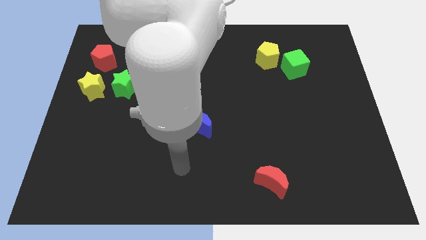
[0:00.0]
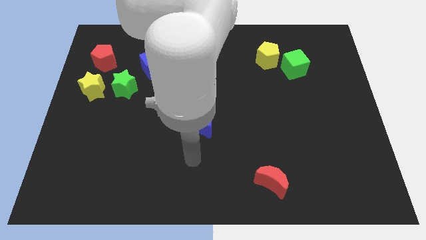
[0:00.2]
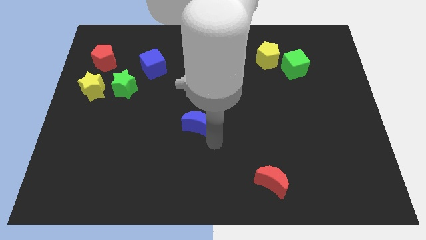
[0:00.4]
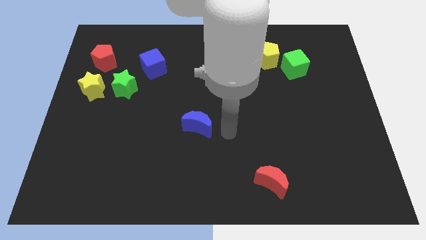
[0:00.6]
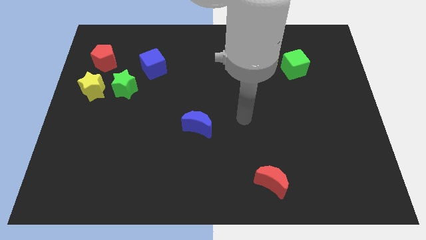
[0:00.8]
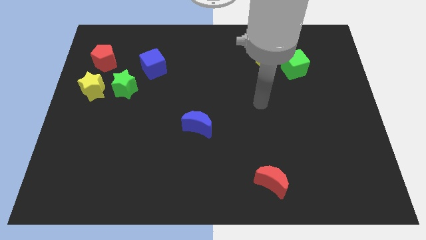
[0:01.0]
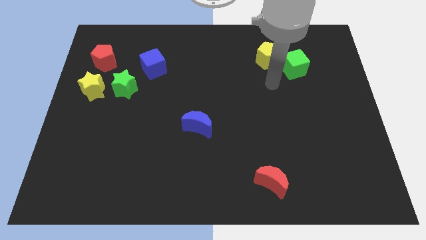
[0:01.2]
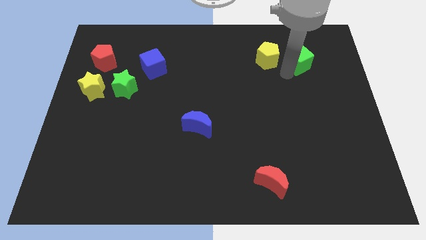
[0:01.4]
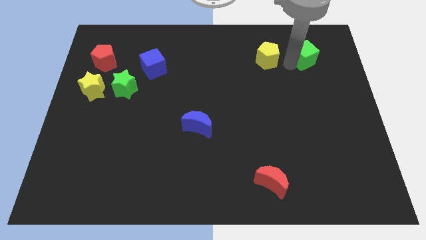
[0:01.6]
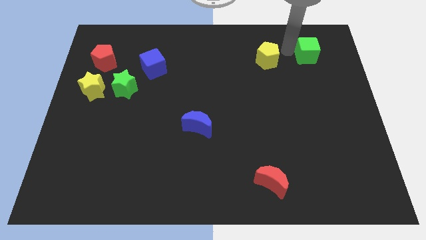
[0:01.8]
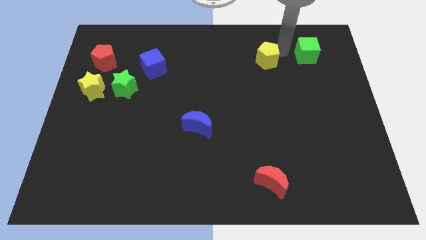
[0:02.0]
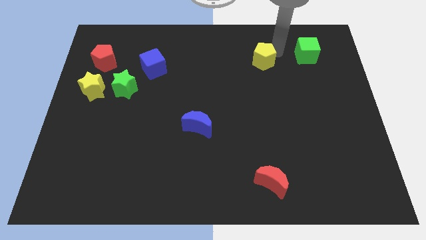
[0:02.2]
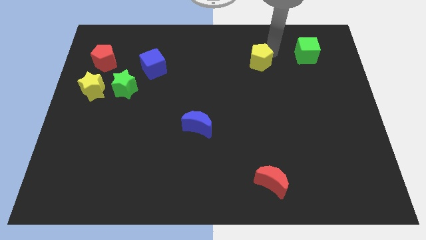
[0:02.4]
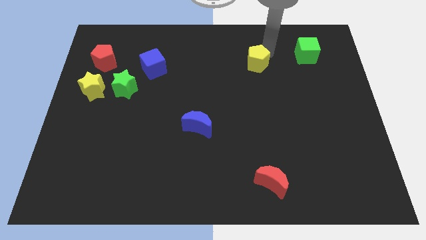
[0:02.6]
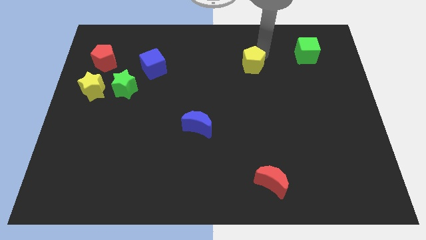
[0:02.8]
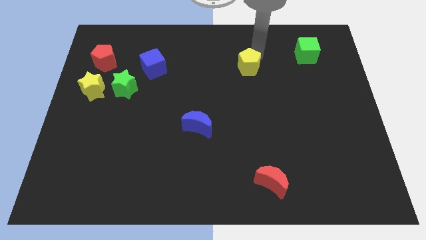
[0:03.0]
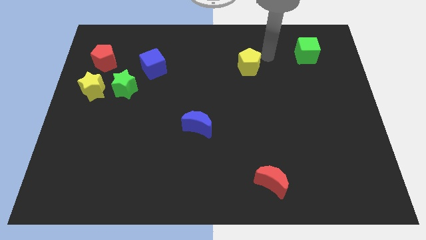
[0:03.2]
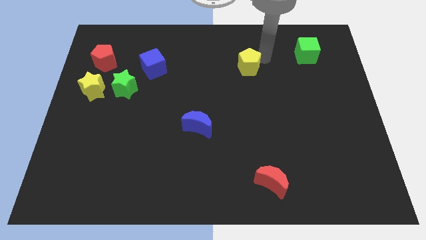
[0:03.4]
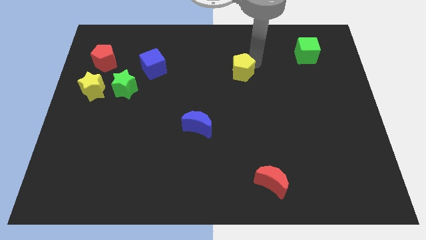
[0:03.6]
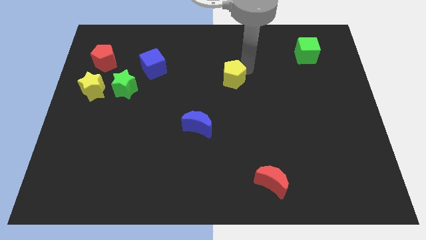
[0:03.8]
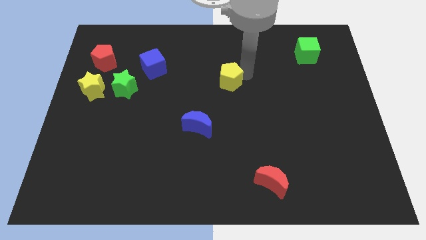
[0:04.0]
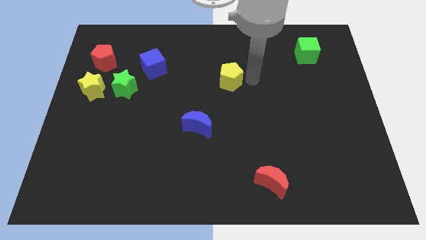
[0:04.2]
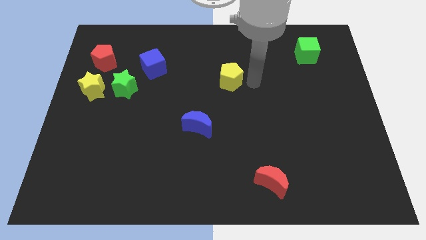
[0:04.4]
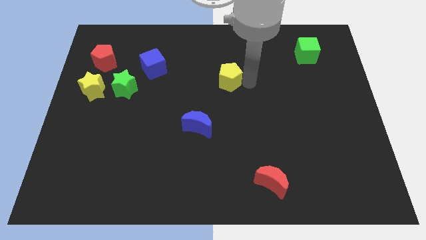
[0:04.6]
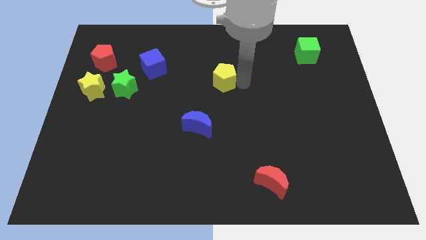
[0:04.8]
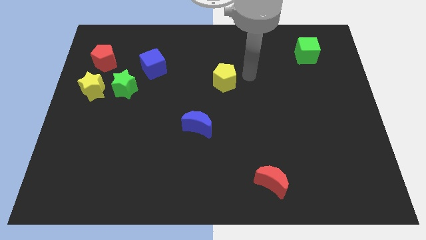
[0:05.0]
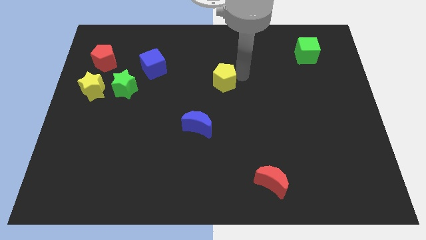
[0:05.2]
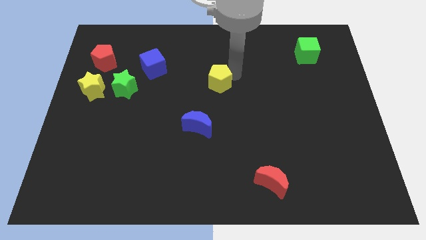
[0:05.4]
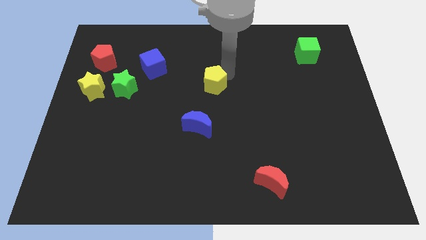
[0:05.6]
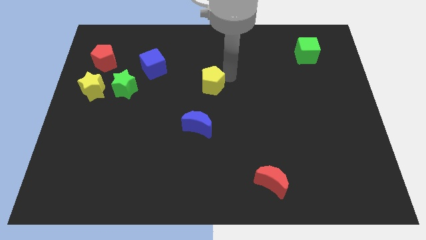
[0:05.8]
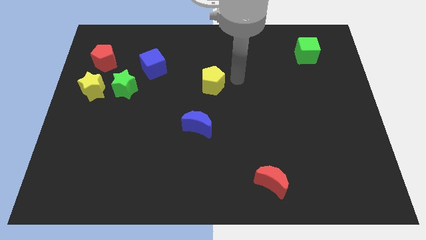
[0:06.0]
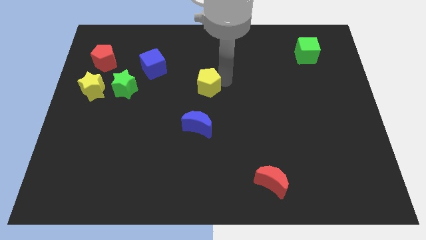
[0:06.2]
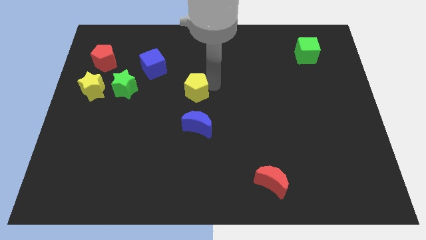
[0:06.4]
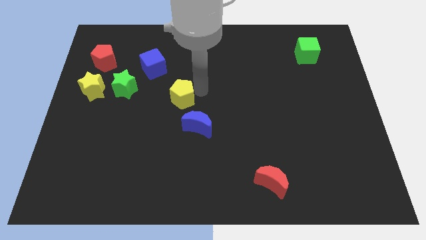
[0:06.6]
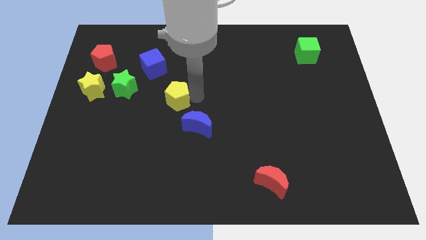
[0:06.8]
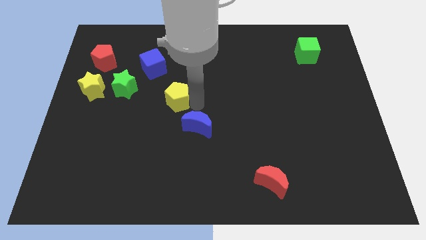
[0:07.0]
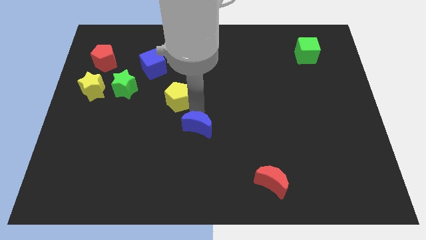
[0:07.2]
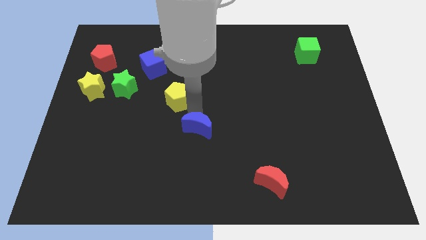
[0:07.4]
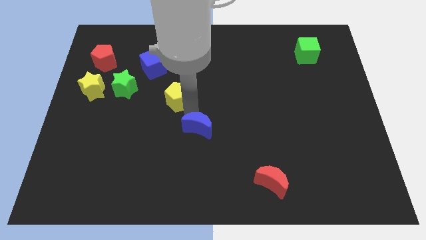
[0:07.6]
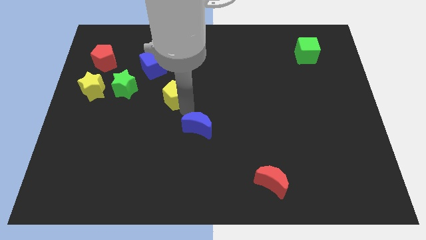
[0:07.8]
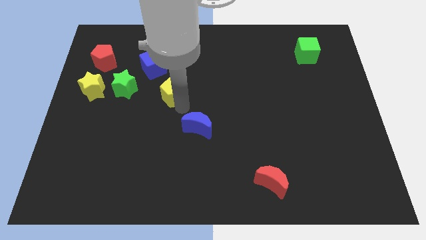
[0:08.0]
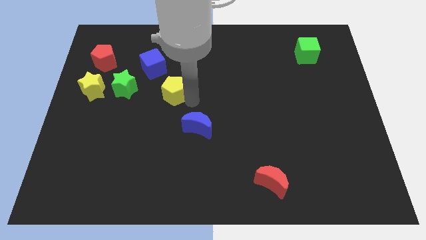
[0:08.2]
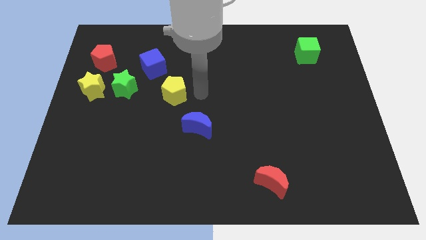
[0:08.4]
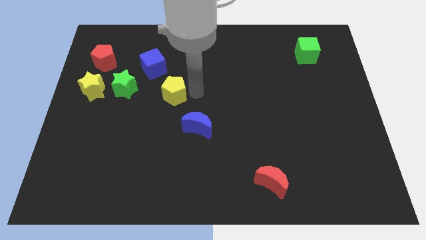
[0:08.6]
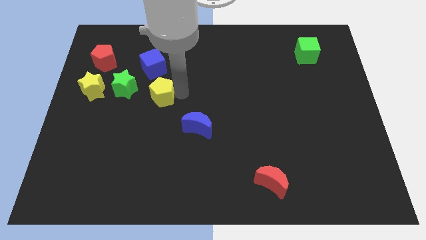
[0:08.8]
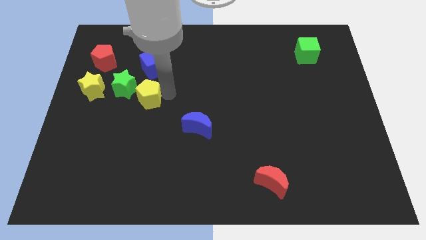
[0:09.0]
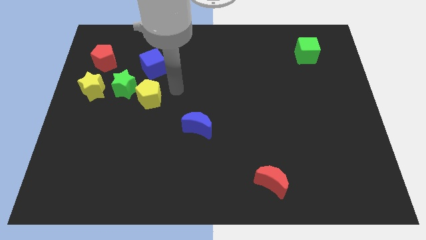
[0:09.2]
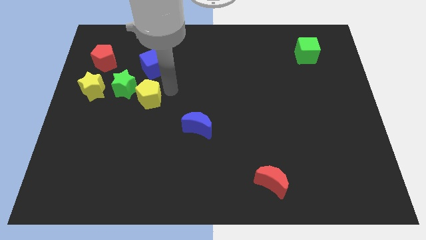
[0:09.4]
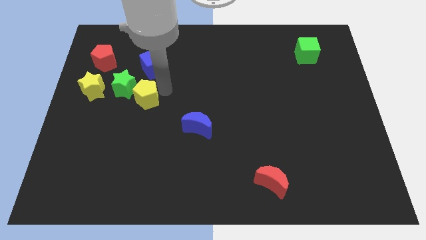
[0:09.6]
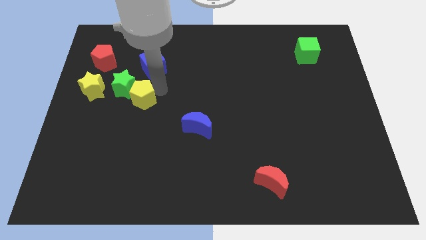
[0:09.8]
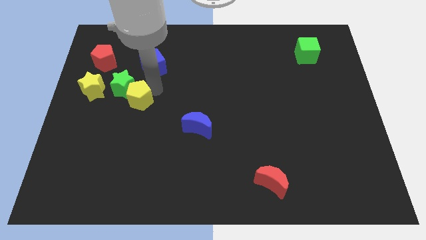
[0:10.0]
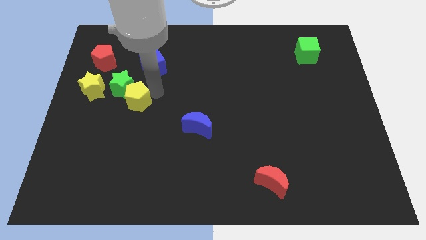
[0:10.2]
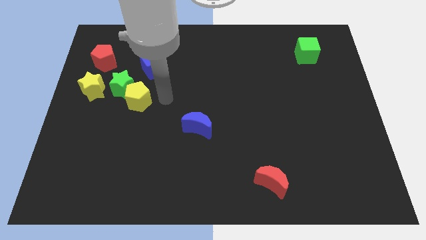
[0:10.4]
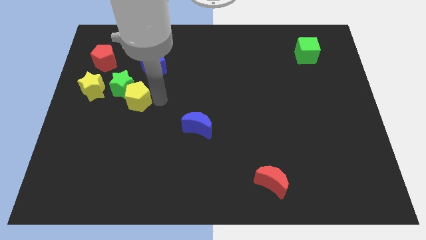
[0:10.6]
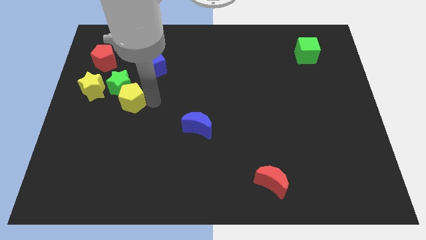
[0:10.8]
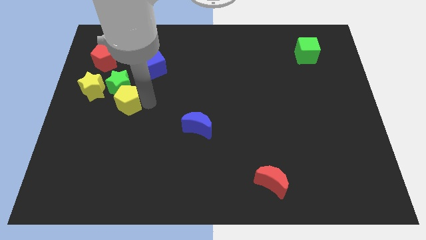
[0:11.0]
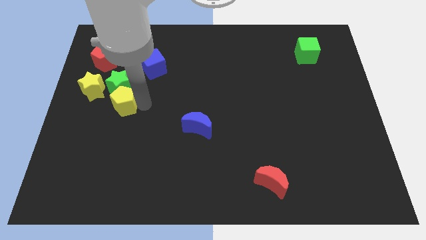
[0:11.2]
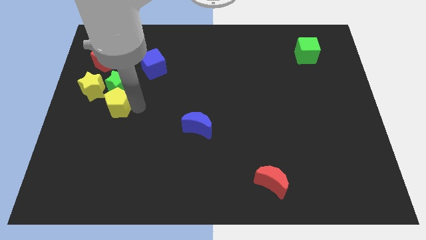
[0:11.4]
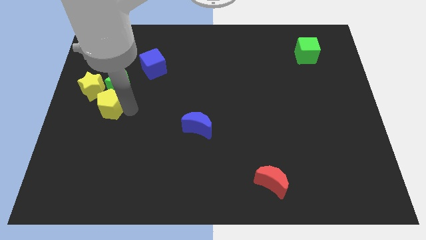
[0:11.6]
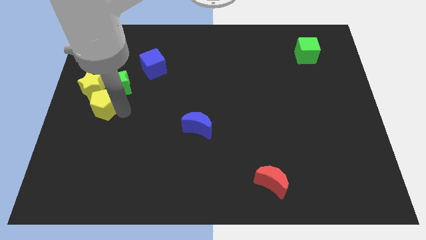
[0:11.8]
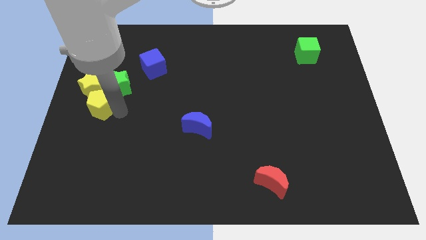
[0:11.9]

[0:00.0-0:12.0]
put the yellow pentagon to the yellow star

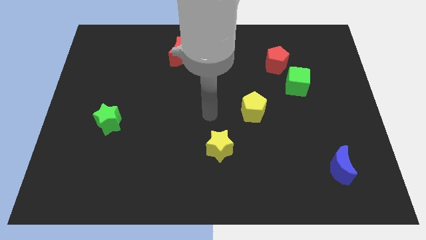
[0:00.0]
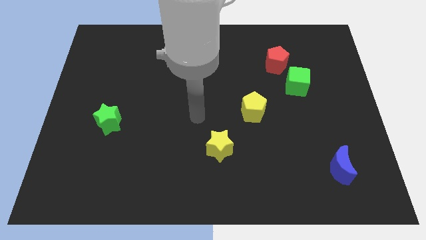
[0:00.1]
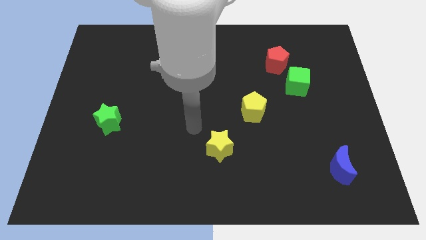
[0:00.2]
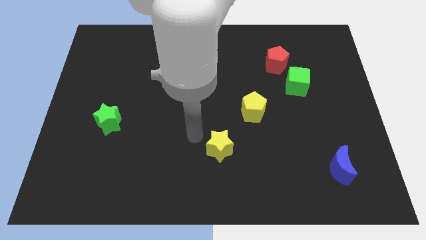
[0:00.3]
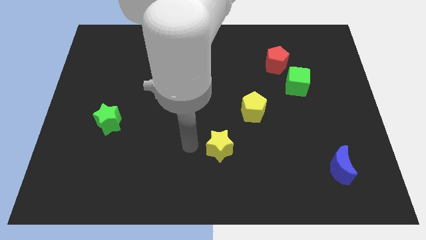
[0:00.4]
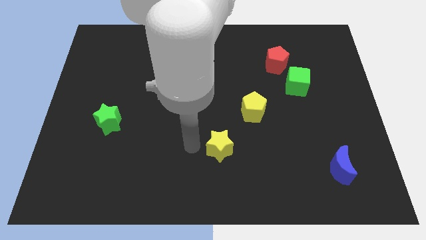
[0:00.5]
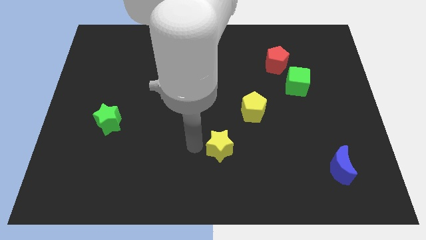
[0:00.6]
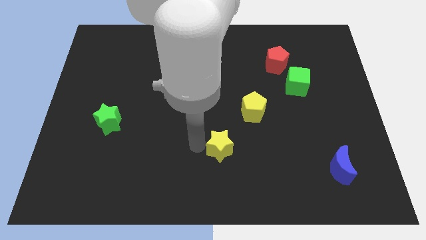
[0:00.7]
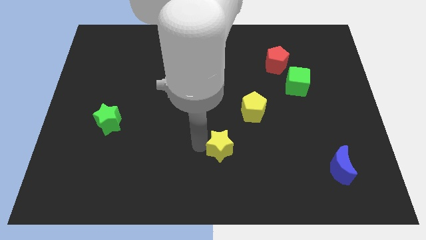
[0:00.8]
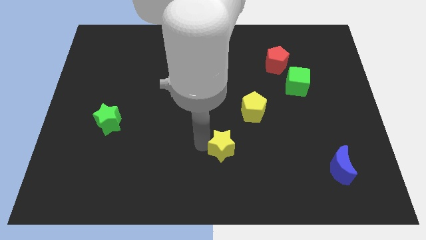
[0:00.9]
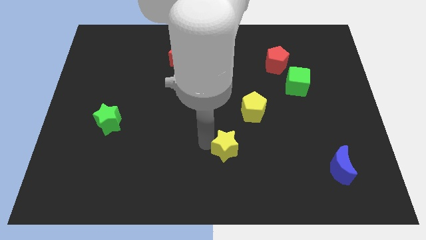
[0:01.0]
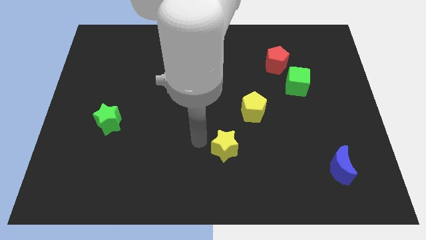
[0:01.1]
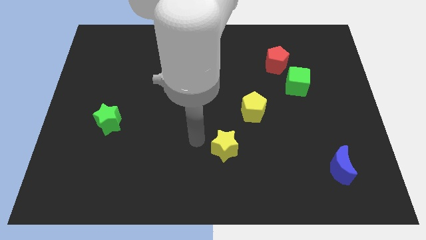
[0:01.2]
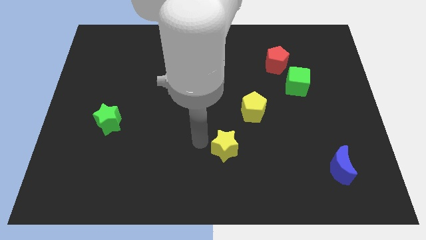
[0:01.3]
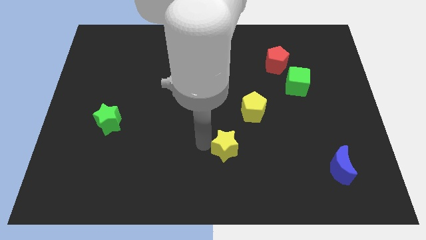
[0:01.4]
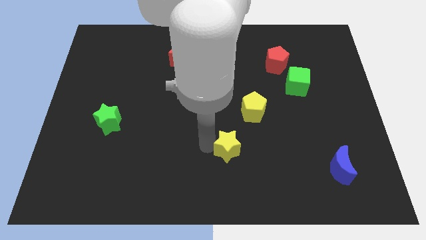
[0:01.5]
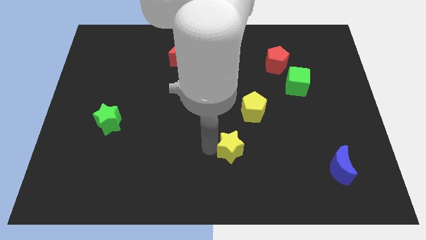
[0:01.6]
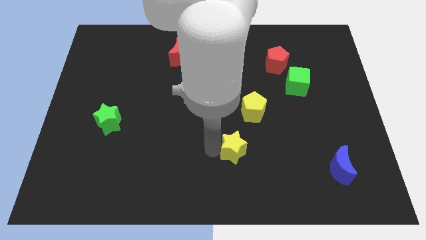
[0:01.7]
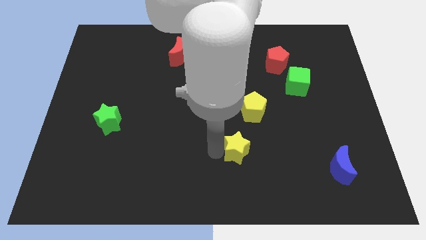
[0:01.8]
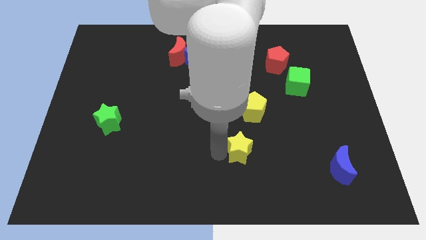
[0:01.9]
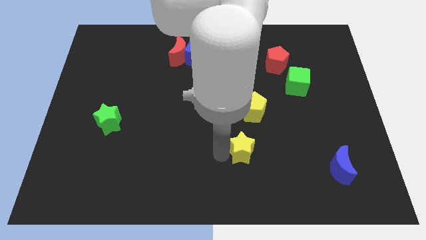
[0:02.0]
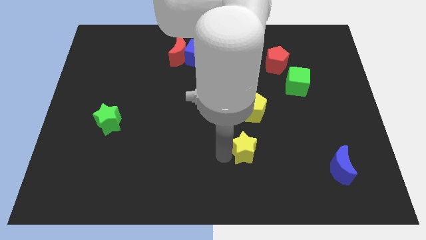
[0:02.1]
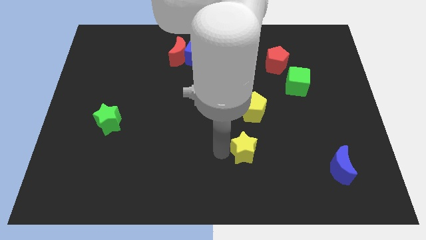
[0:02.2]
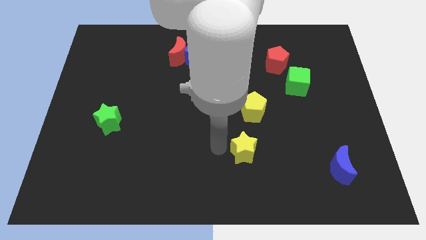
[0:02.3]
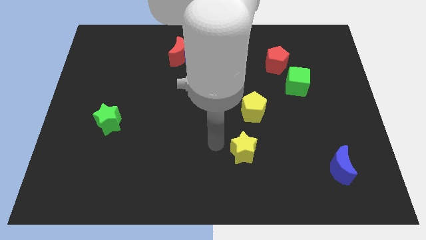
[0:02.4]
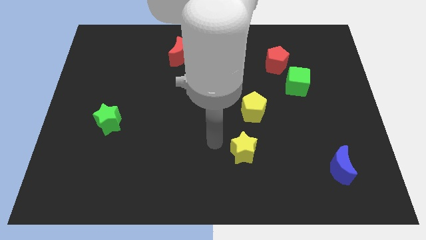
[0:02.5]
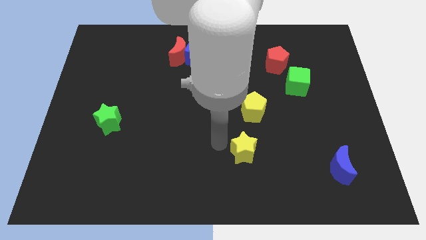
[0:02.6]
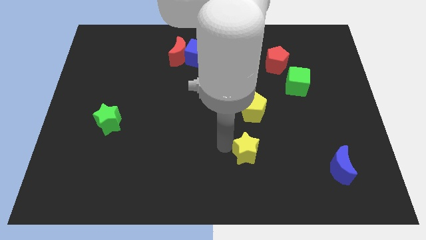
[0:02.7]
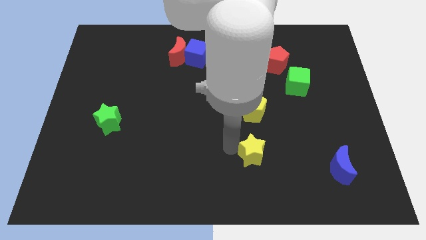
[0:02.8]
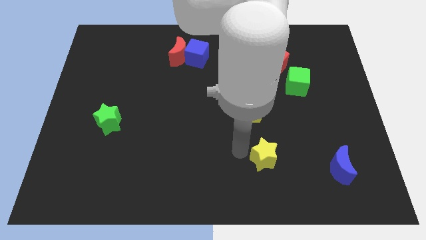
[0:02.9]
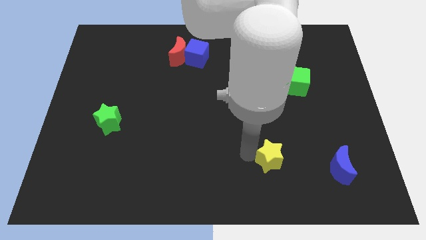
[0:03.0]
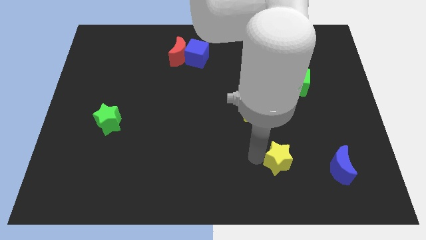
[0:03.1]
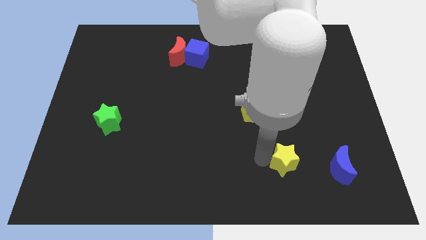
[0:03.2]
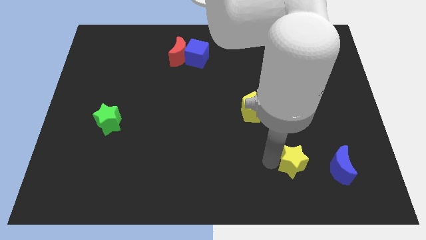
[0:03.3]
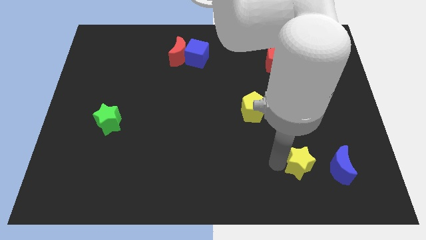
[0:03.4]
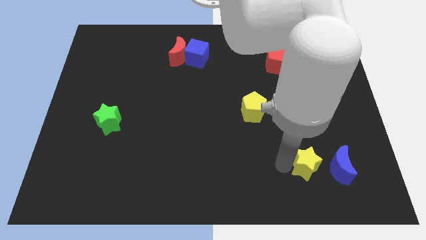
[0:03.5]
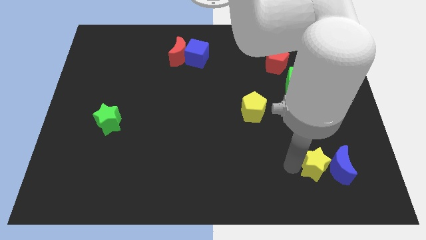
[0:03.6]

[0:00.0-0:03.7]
slide the yellow star next to the blue moon
